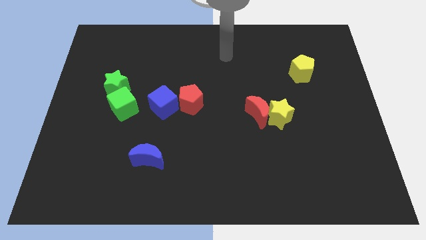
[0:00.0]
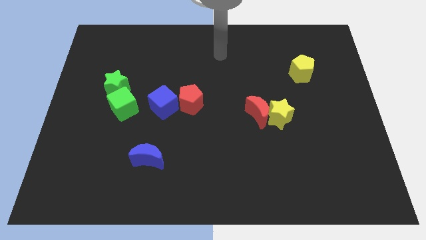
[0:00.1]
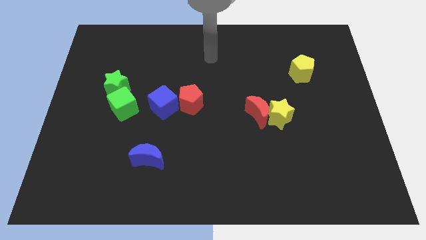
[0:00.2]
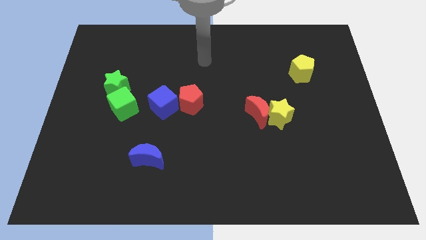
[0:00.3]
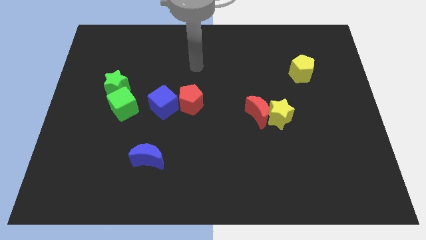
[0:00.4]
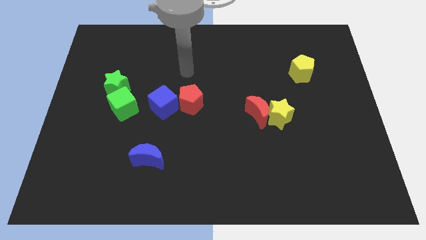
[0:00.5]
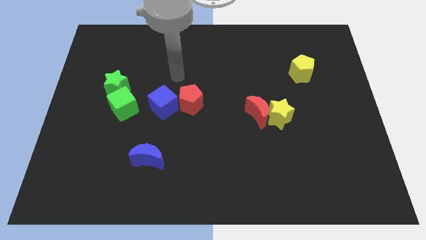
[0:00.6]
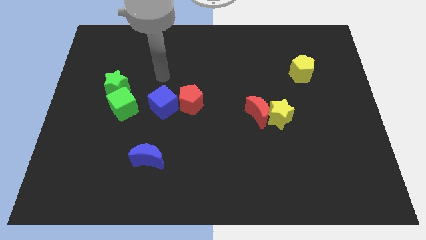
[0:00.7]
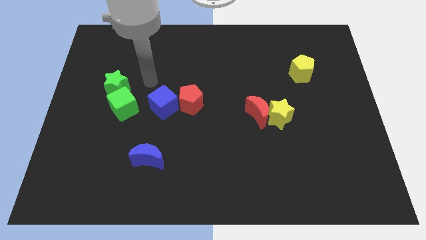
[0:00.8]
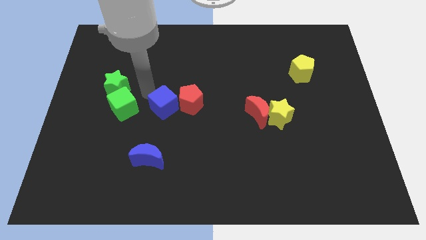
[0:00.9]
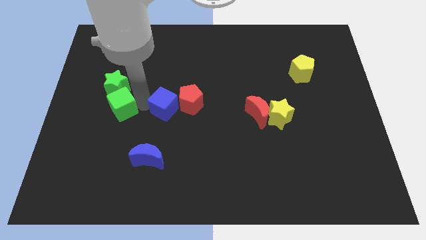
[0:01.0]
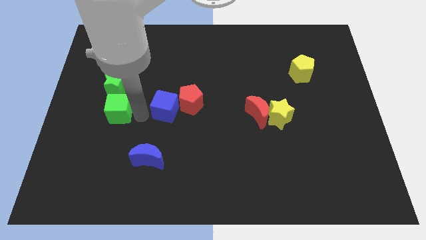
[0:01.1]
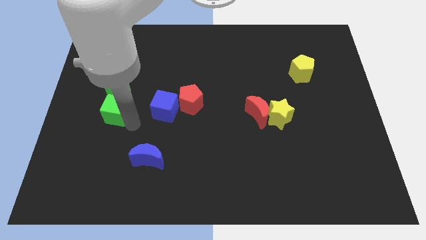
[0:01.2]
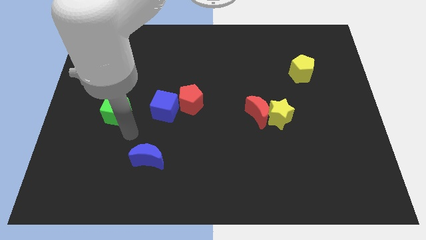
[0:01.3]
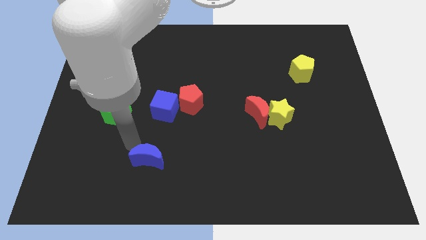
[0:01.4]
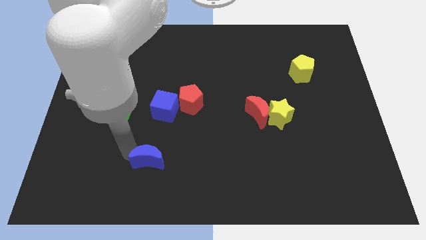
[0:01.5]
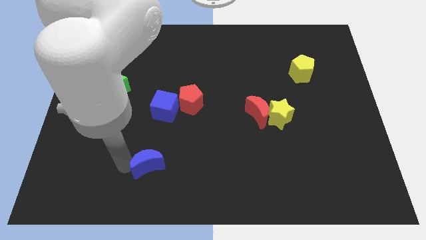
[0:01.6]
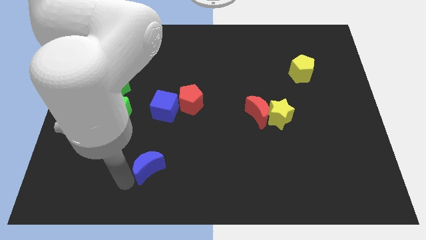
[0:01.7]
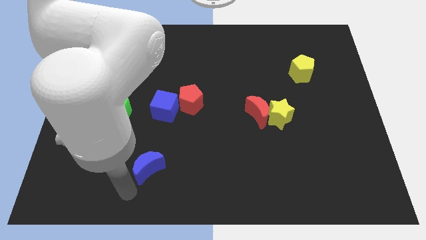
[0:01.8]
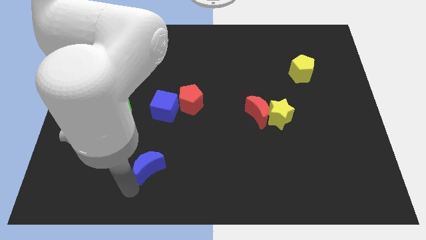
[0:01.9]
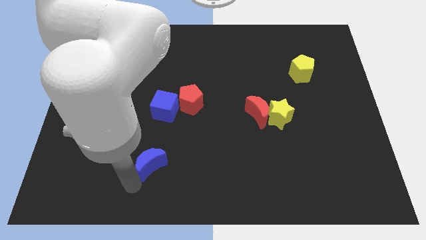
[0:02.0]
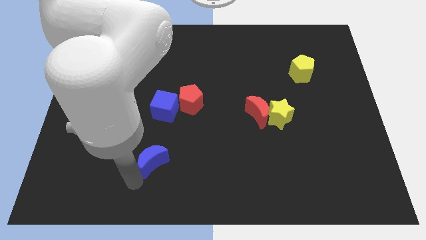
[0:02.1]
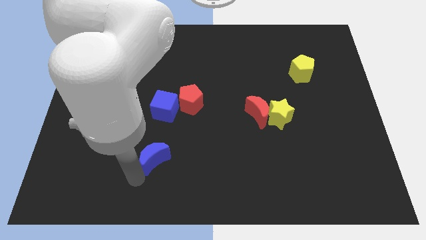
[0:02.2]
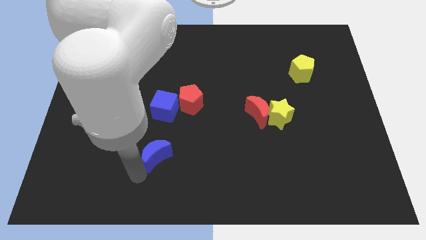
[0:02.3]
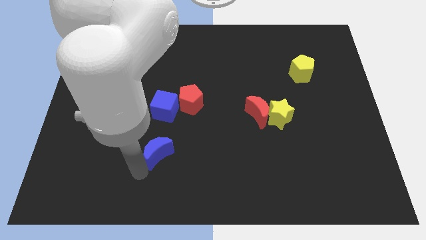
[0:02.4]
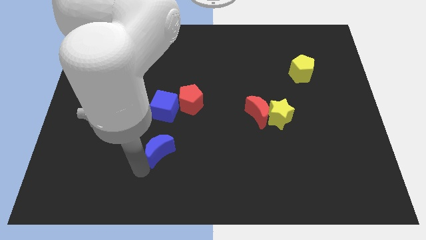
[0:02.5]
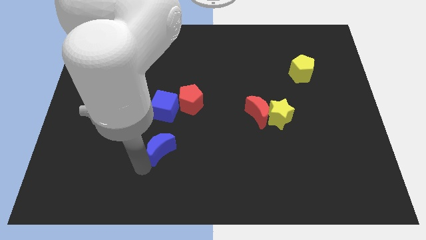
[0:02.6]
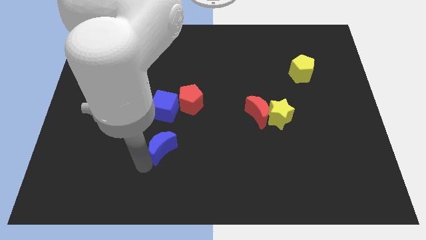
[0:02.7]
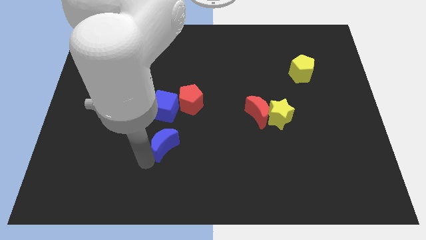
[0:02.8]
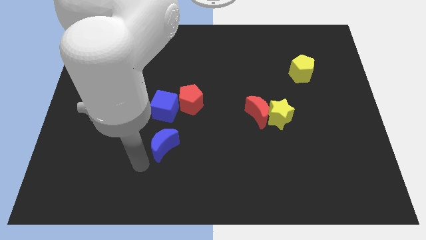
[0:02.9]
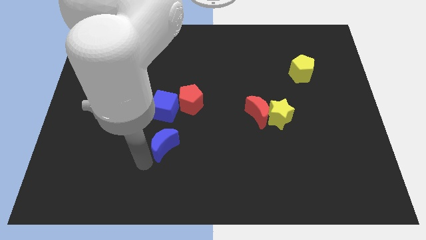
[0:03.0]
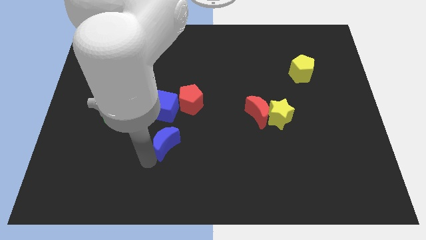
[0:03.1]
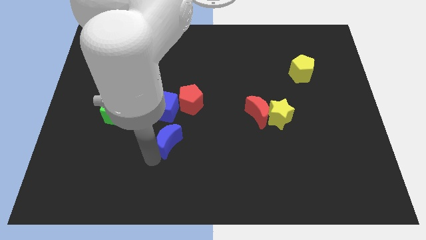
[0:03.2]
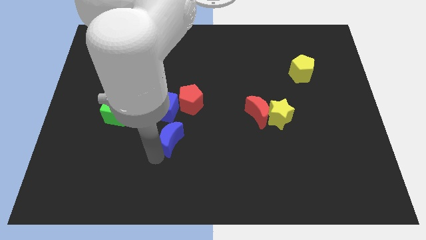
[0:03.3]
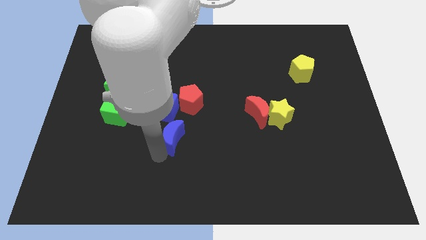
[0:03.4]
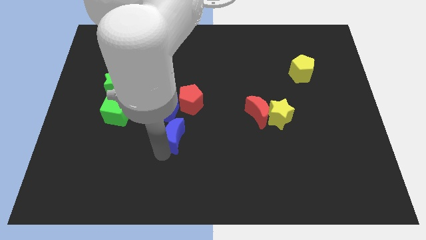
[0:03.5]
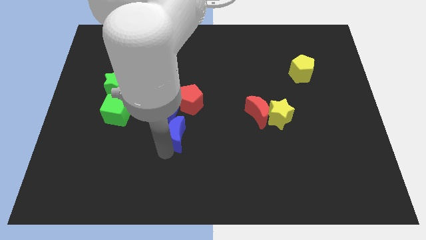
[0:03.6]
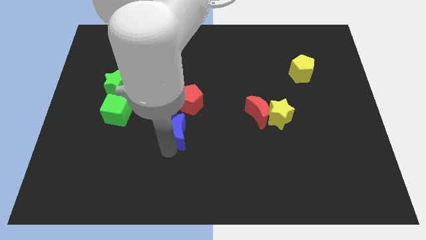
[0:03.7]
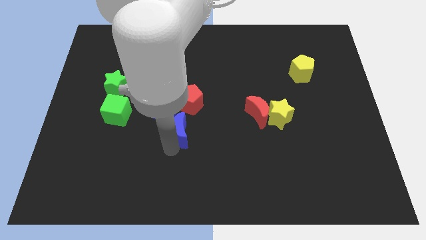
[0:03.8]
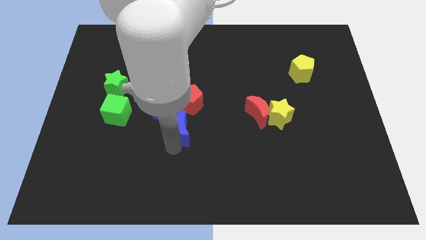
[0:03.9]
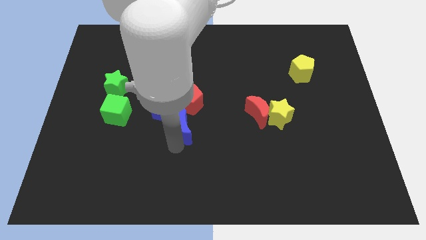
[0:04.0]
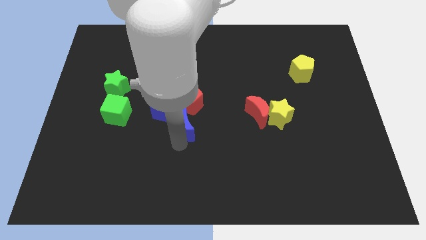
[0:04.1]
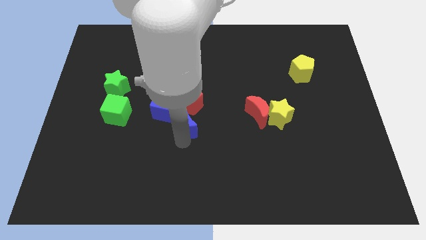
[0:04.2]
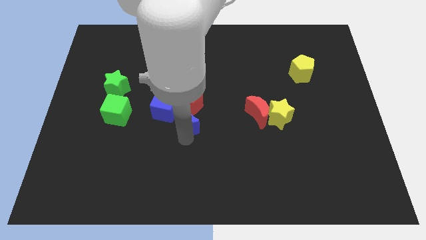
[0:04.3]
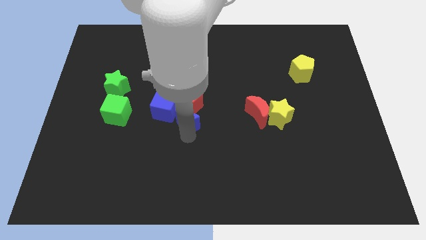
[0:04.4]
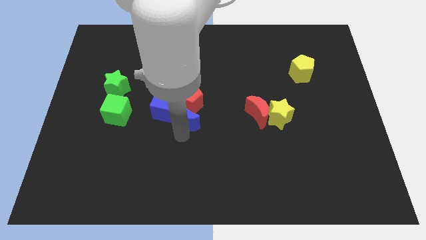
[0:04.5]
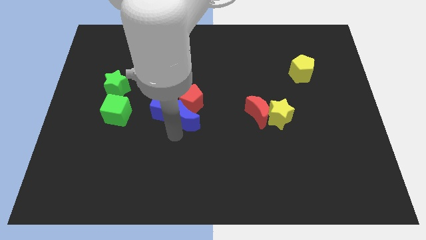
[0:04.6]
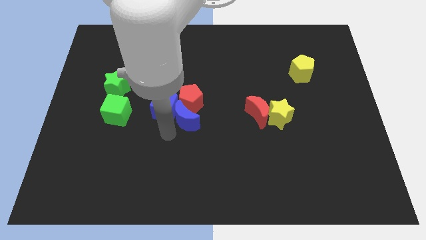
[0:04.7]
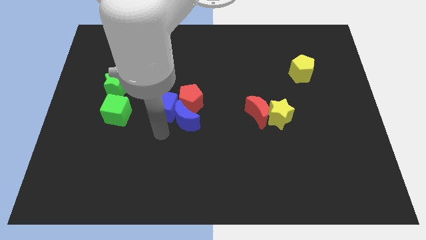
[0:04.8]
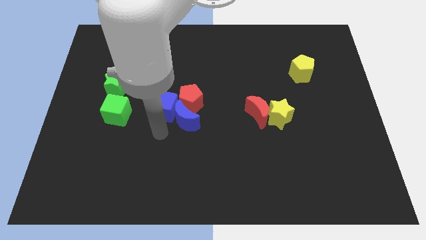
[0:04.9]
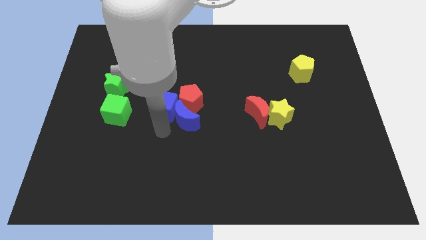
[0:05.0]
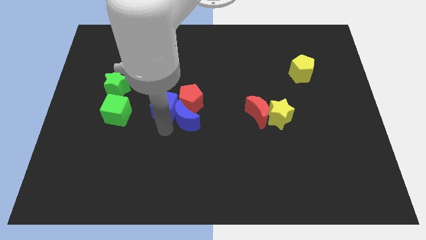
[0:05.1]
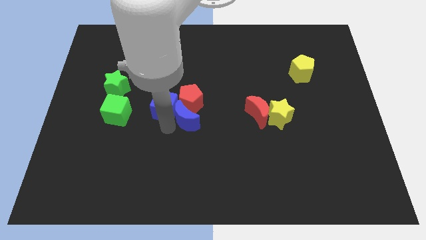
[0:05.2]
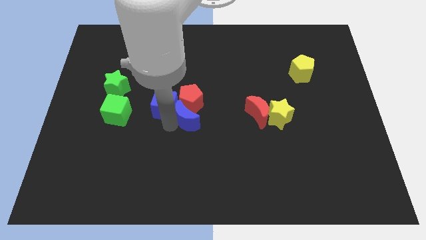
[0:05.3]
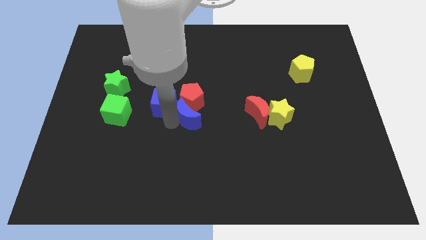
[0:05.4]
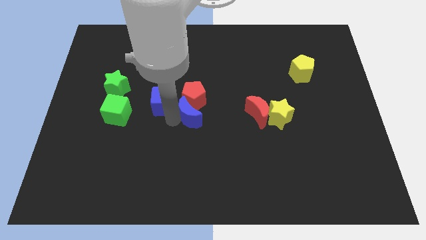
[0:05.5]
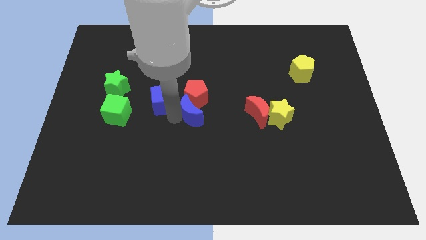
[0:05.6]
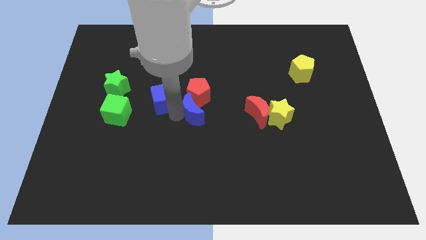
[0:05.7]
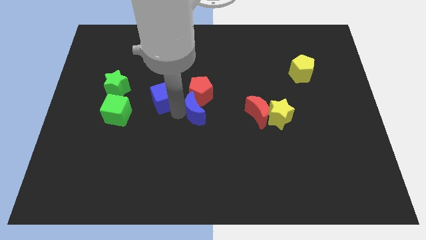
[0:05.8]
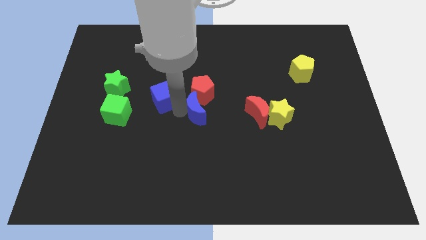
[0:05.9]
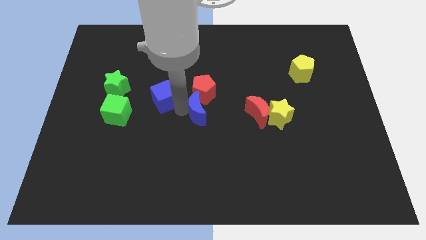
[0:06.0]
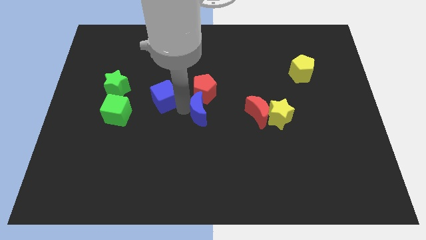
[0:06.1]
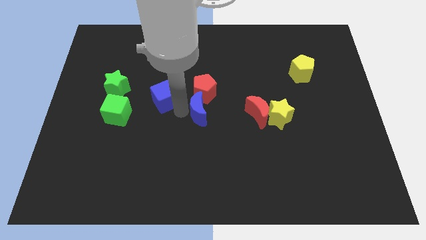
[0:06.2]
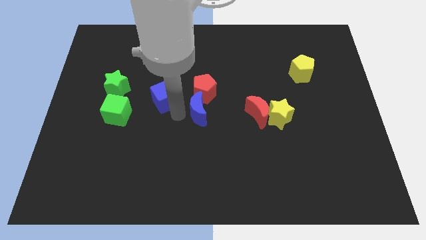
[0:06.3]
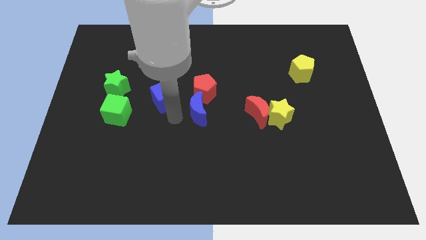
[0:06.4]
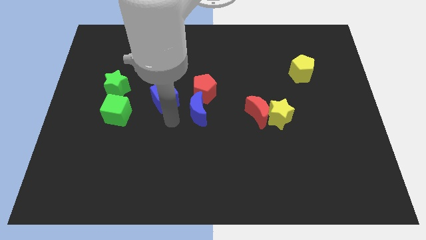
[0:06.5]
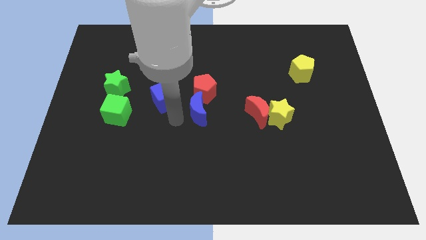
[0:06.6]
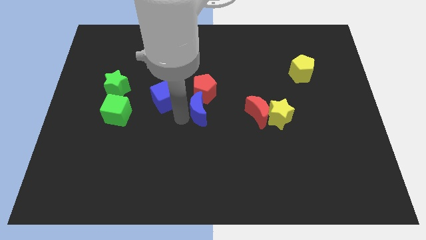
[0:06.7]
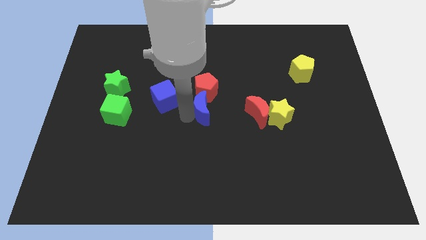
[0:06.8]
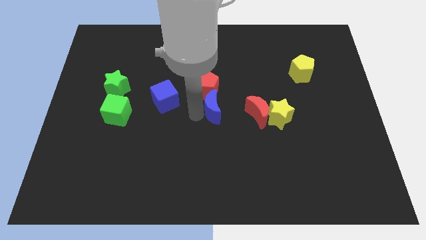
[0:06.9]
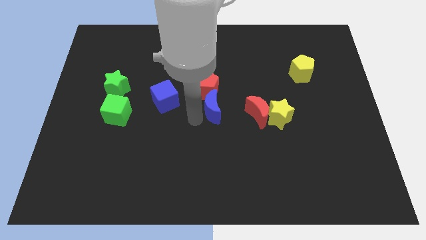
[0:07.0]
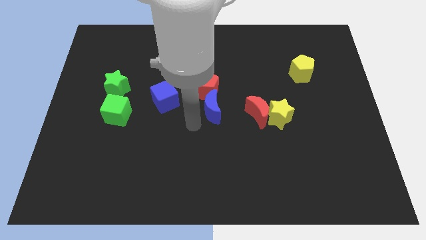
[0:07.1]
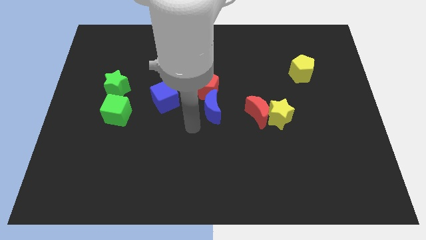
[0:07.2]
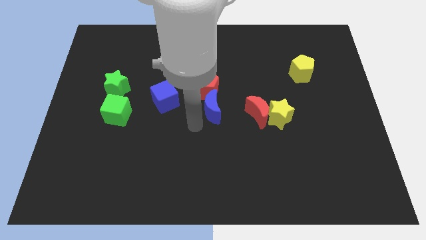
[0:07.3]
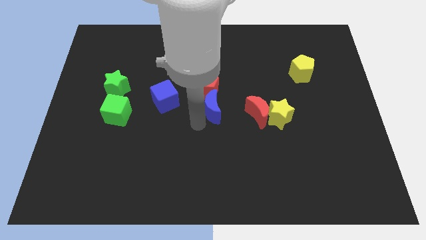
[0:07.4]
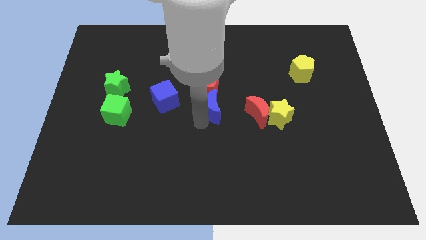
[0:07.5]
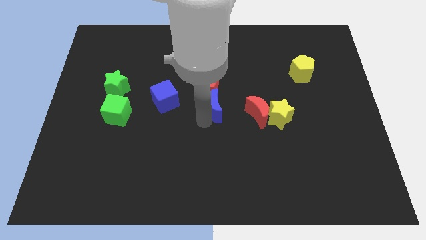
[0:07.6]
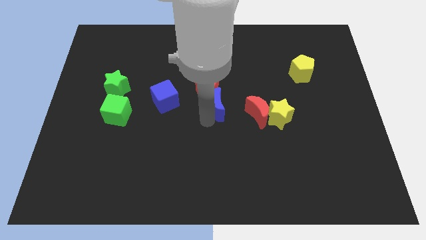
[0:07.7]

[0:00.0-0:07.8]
slide the blue moon up and then right
